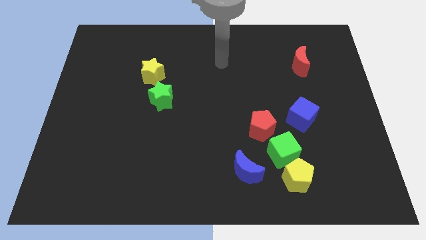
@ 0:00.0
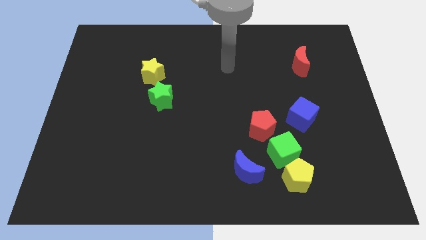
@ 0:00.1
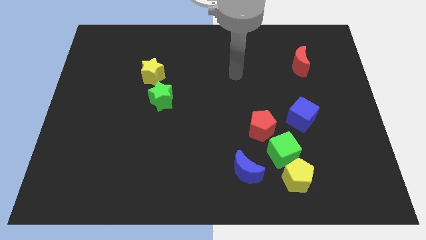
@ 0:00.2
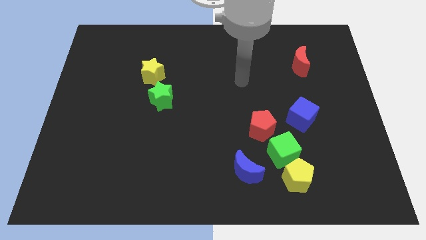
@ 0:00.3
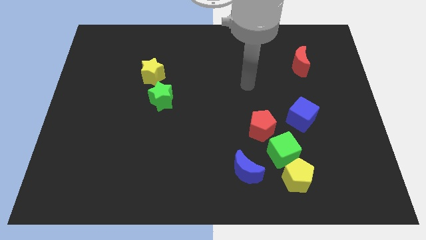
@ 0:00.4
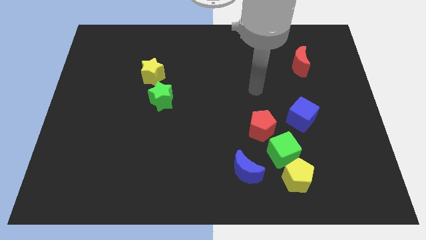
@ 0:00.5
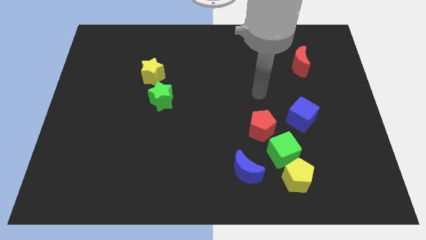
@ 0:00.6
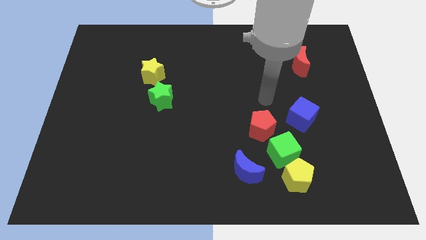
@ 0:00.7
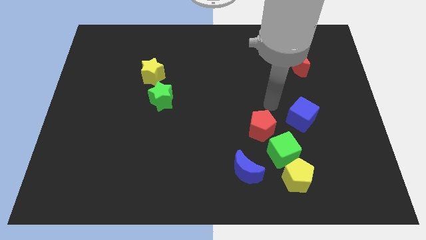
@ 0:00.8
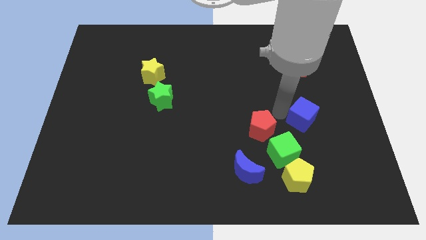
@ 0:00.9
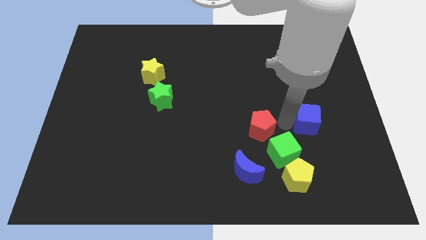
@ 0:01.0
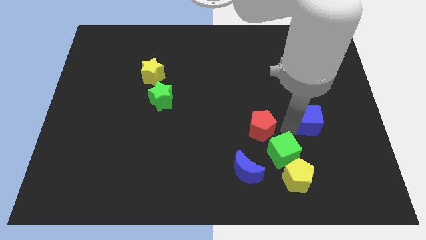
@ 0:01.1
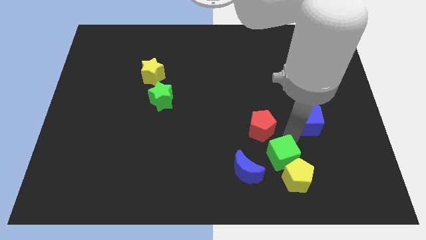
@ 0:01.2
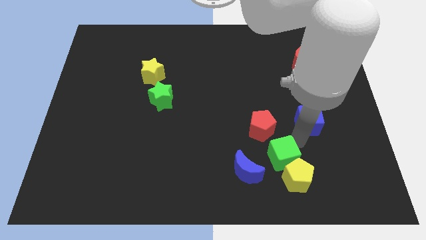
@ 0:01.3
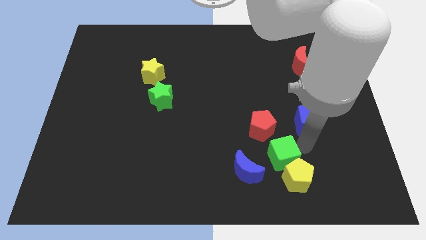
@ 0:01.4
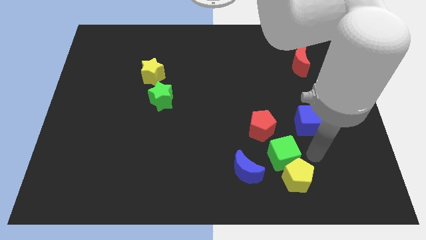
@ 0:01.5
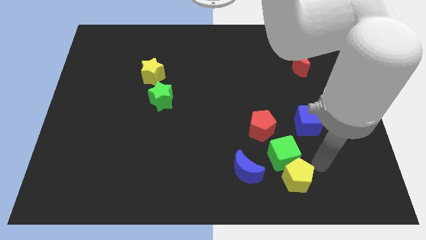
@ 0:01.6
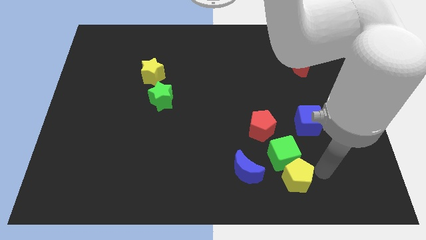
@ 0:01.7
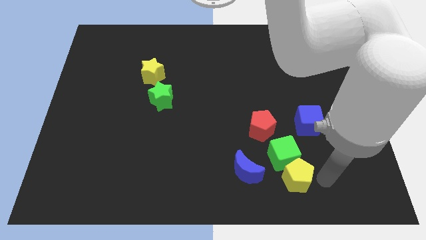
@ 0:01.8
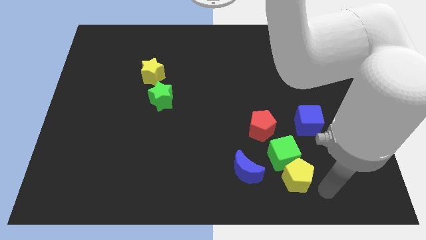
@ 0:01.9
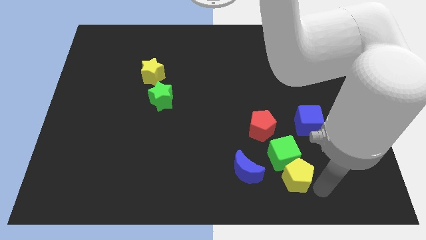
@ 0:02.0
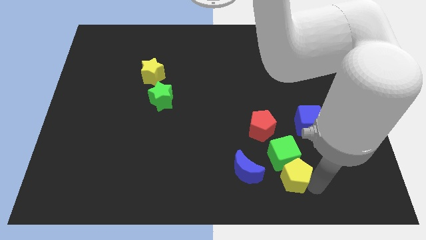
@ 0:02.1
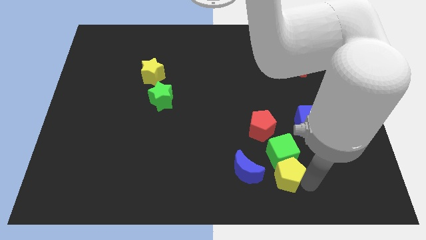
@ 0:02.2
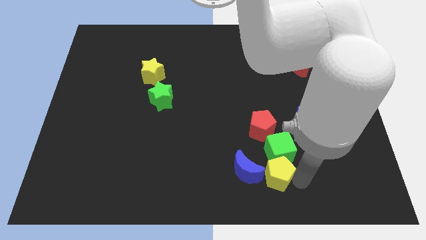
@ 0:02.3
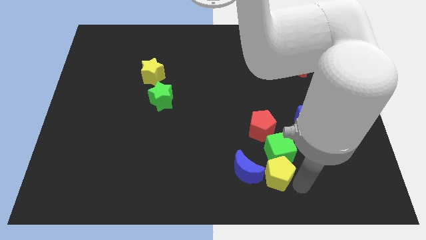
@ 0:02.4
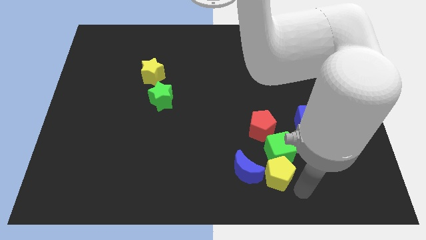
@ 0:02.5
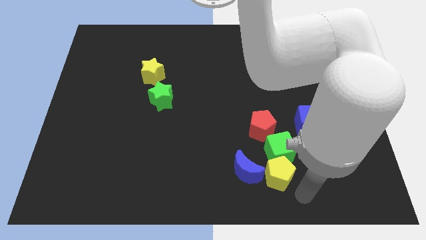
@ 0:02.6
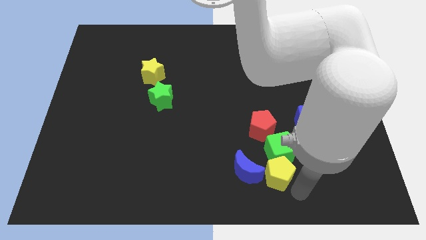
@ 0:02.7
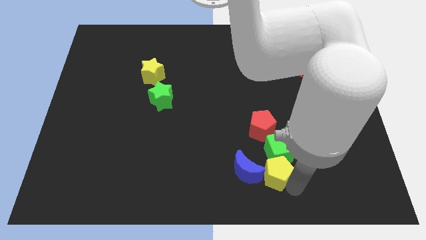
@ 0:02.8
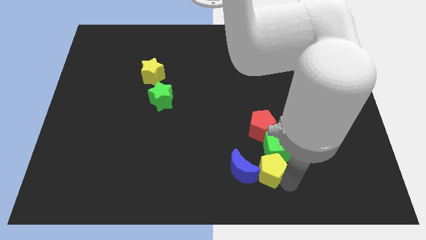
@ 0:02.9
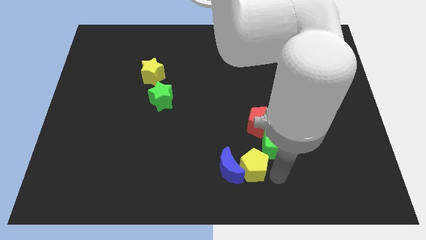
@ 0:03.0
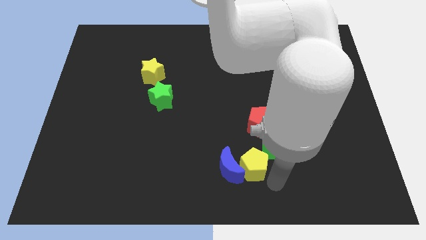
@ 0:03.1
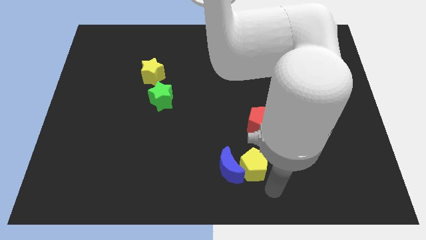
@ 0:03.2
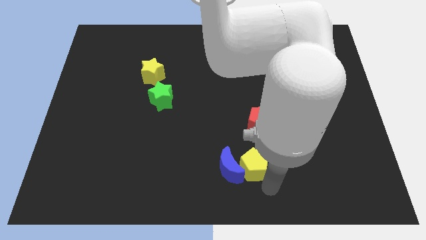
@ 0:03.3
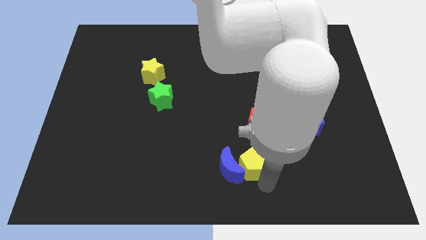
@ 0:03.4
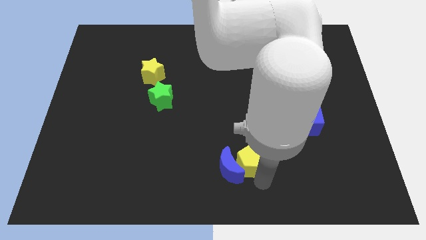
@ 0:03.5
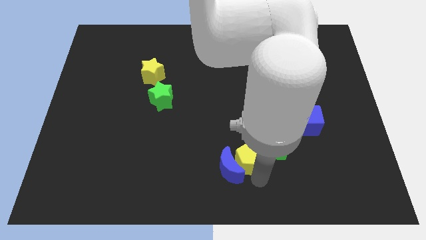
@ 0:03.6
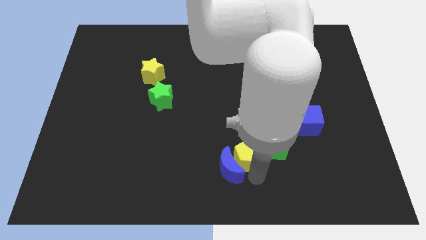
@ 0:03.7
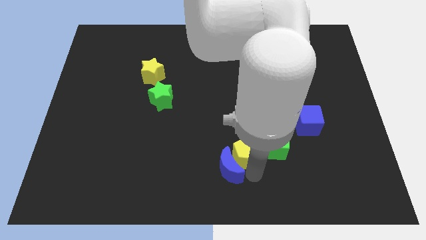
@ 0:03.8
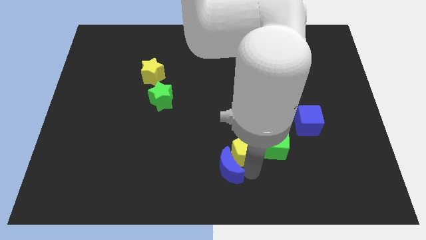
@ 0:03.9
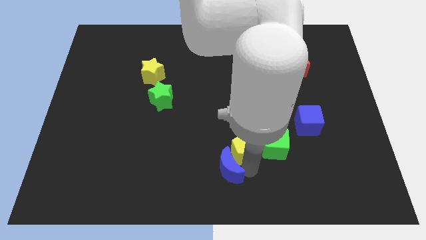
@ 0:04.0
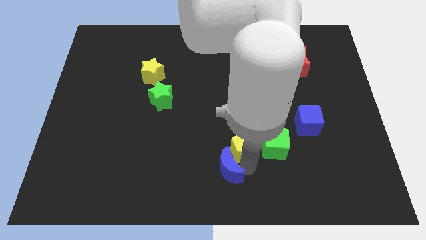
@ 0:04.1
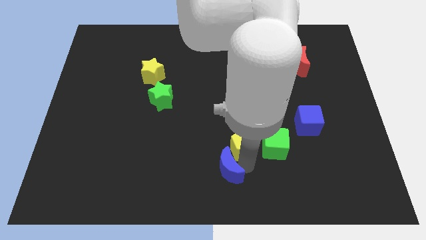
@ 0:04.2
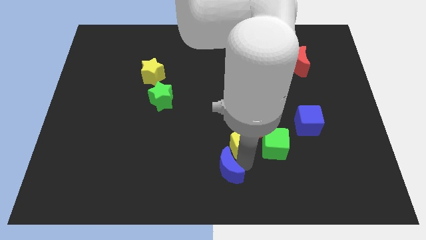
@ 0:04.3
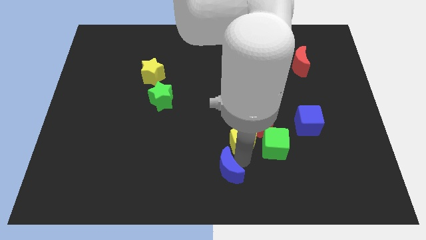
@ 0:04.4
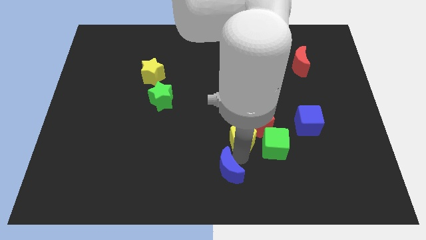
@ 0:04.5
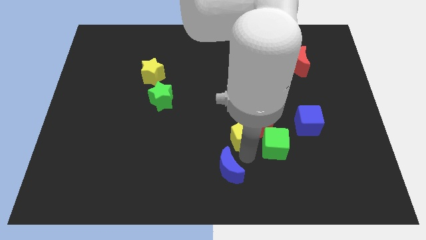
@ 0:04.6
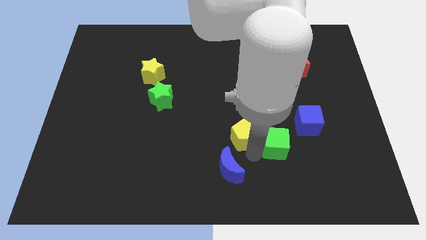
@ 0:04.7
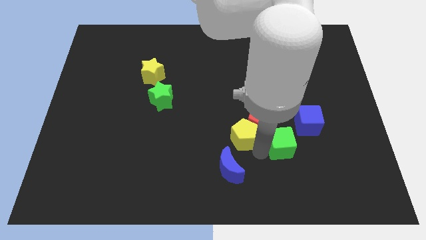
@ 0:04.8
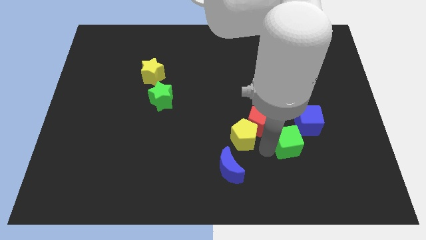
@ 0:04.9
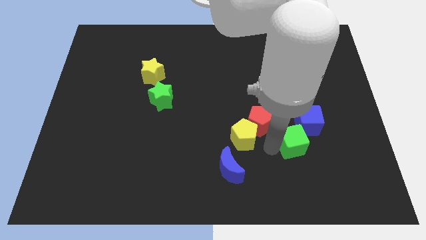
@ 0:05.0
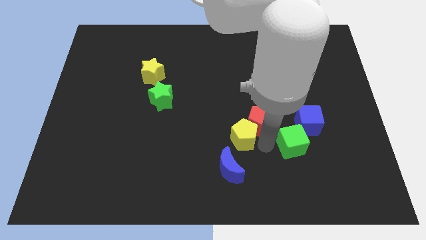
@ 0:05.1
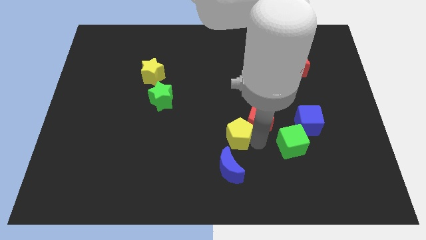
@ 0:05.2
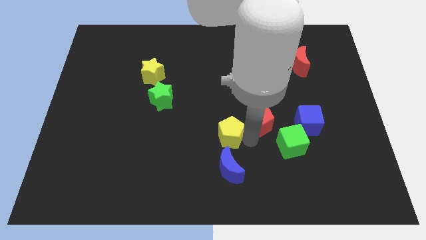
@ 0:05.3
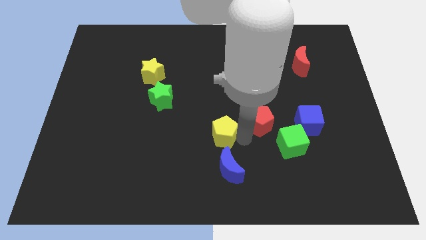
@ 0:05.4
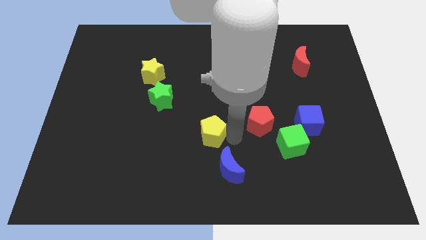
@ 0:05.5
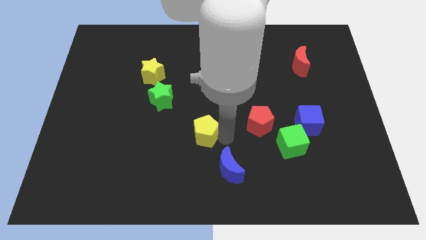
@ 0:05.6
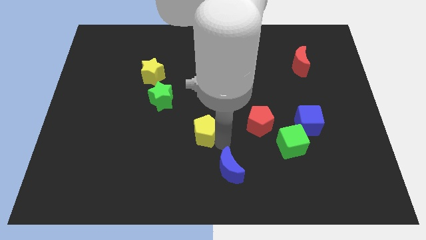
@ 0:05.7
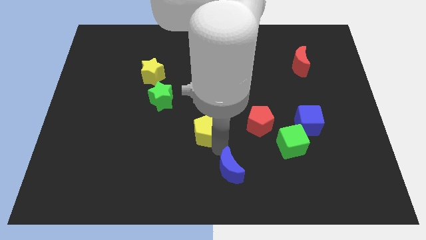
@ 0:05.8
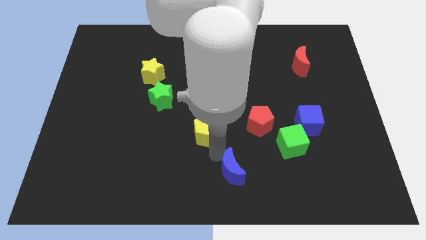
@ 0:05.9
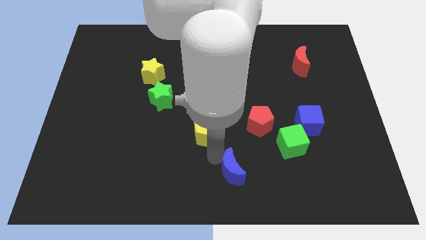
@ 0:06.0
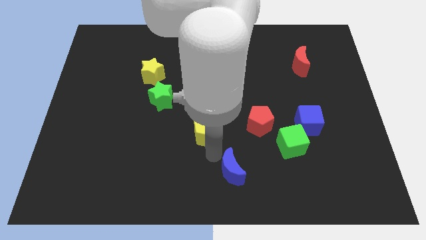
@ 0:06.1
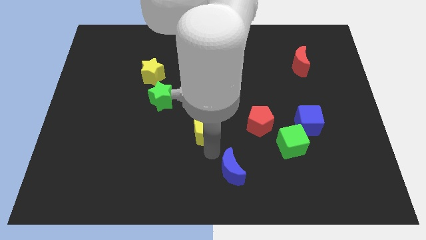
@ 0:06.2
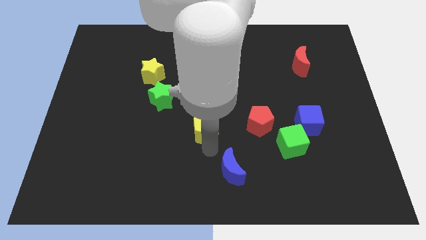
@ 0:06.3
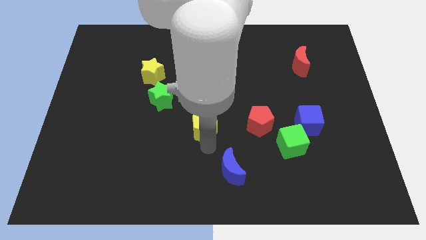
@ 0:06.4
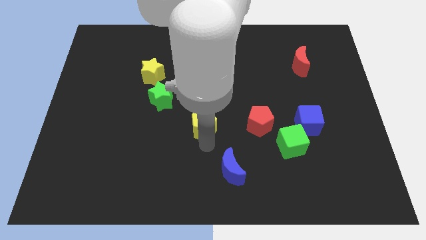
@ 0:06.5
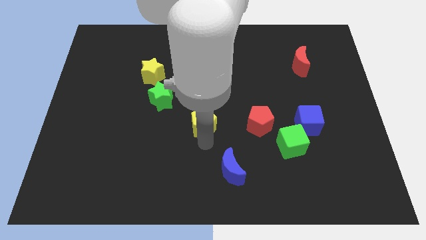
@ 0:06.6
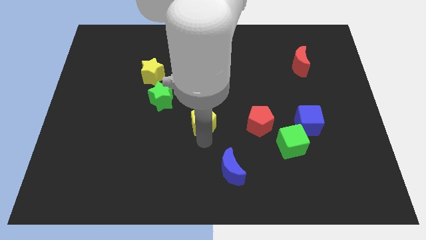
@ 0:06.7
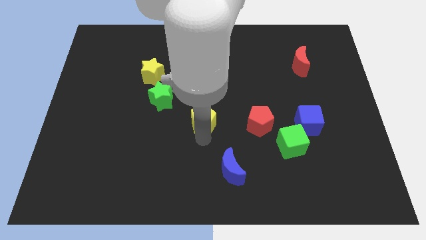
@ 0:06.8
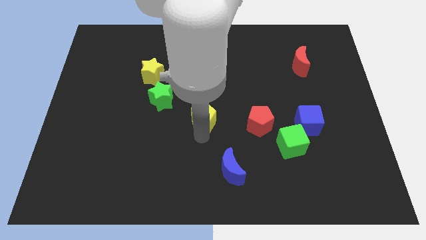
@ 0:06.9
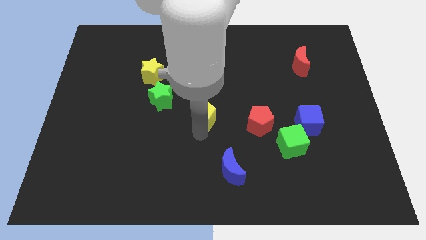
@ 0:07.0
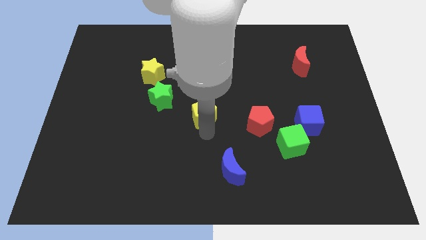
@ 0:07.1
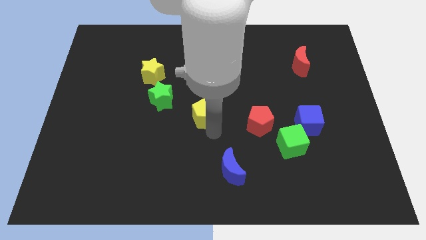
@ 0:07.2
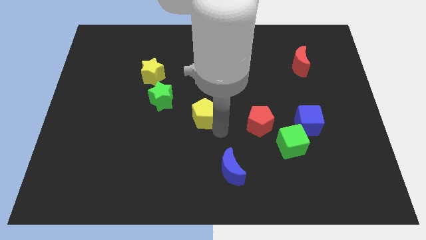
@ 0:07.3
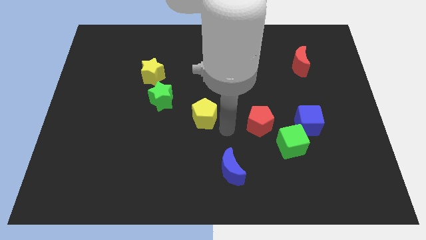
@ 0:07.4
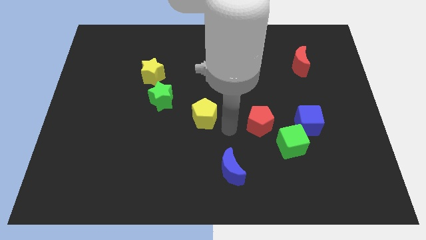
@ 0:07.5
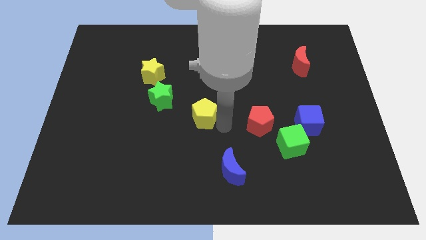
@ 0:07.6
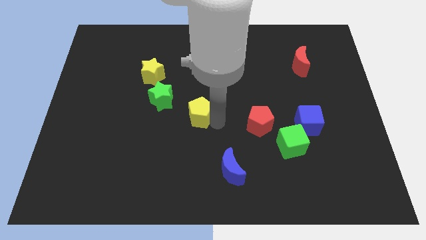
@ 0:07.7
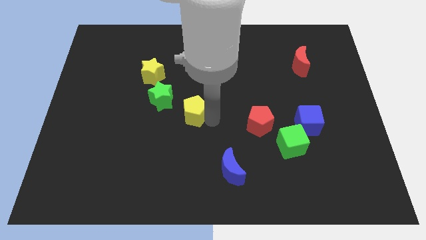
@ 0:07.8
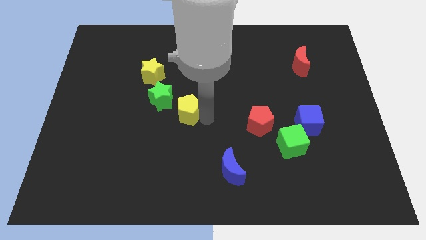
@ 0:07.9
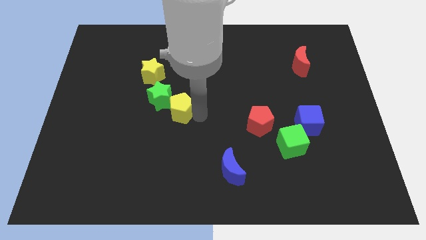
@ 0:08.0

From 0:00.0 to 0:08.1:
put the yellow pentagon towards the green star
